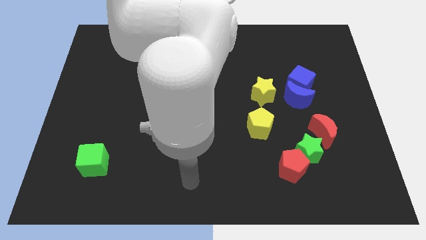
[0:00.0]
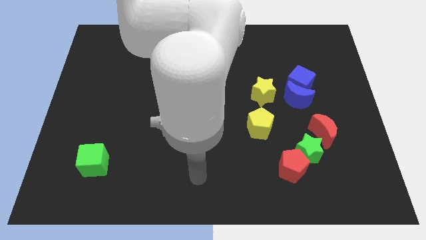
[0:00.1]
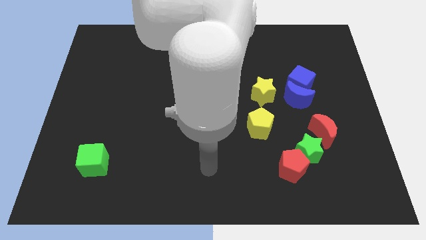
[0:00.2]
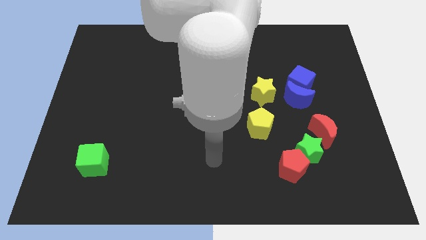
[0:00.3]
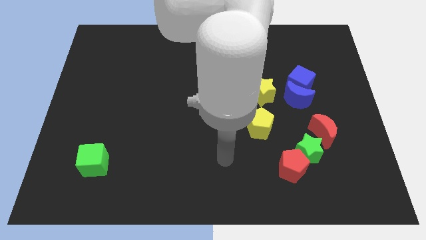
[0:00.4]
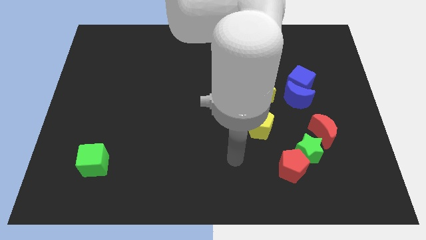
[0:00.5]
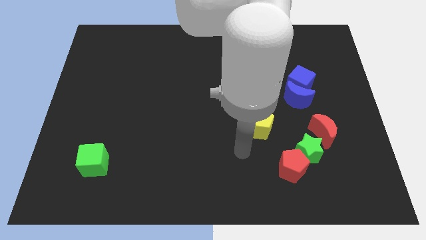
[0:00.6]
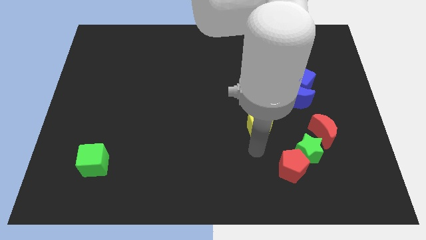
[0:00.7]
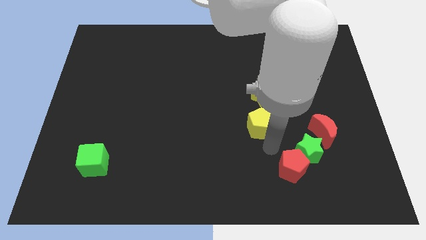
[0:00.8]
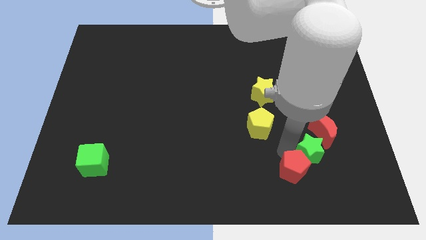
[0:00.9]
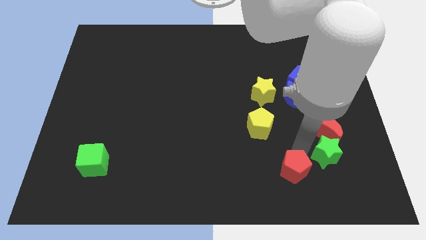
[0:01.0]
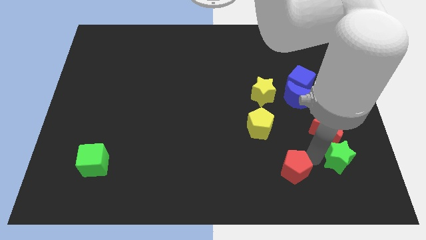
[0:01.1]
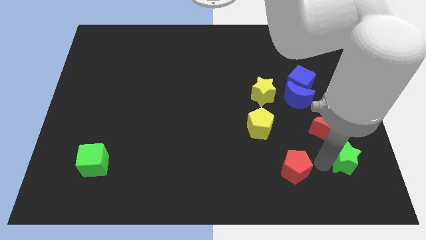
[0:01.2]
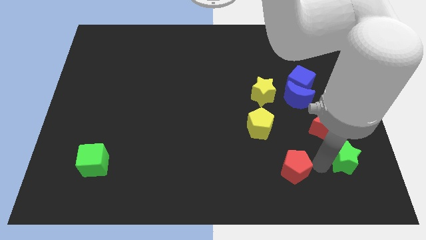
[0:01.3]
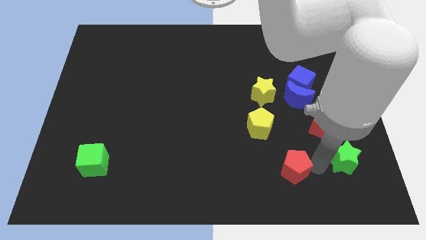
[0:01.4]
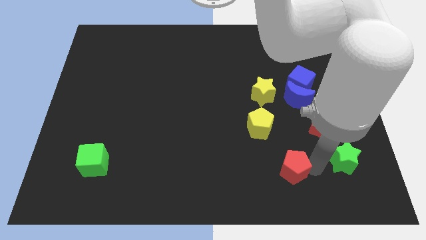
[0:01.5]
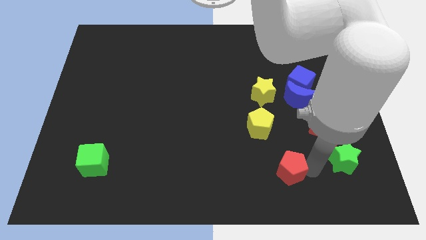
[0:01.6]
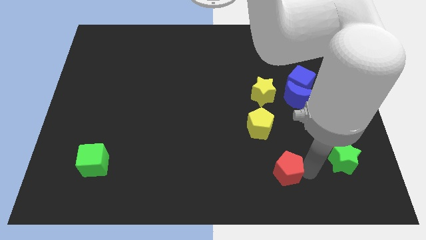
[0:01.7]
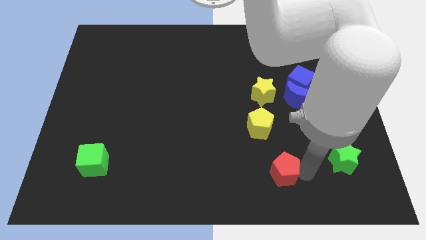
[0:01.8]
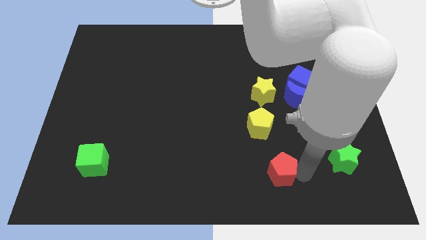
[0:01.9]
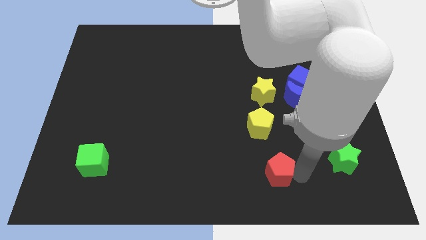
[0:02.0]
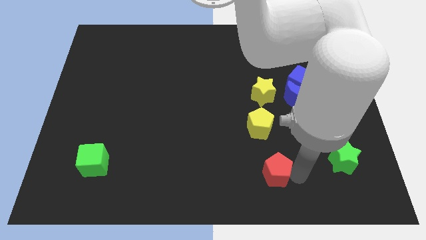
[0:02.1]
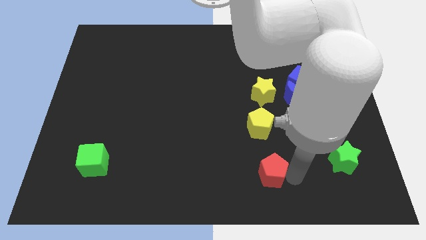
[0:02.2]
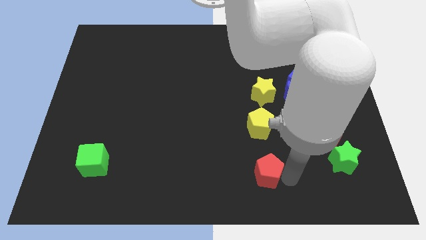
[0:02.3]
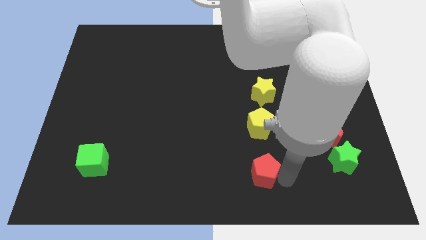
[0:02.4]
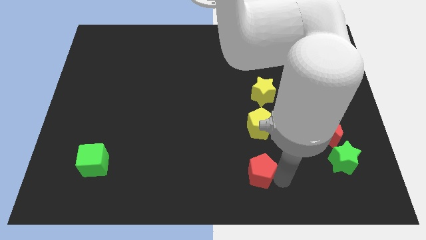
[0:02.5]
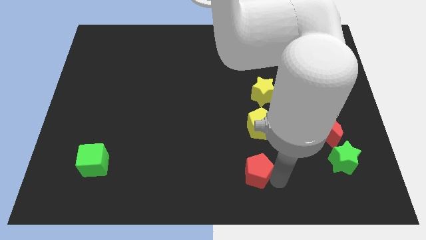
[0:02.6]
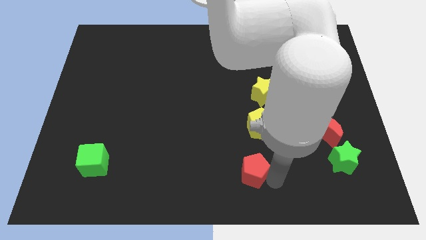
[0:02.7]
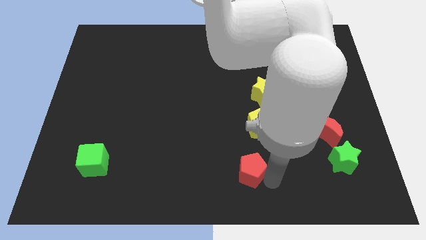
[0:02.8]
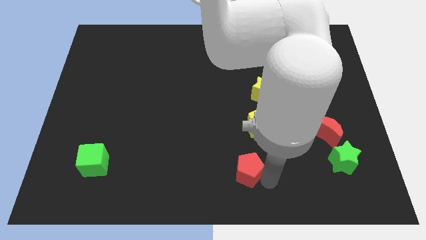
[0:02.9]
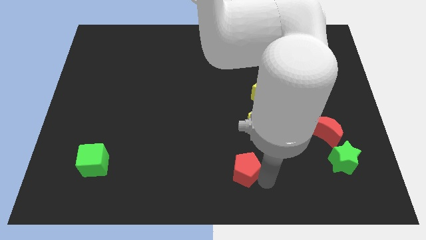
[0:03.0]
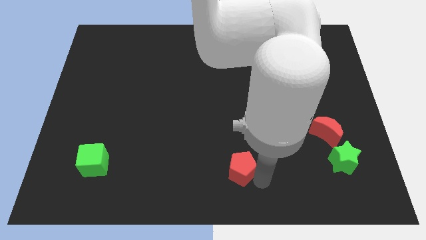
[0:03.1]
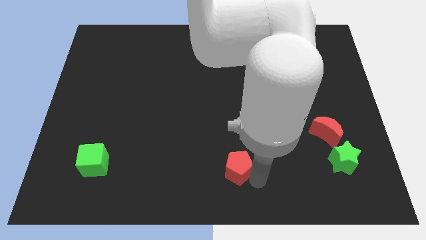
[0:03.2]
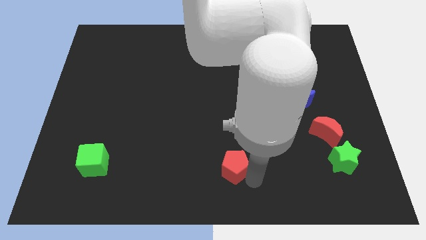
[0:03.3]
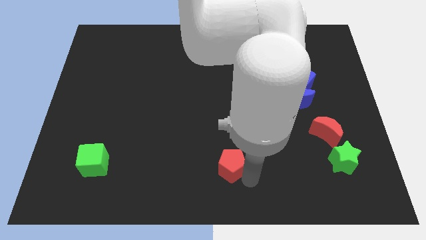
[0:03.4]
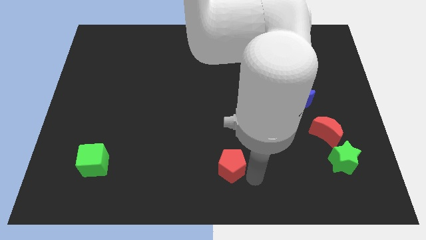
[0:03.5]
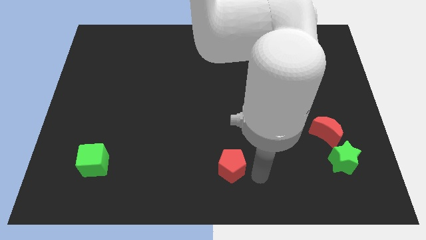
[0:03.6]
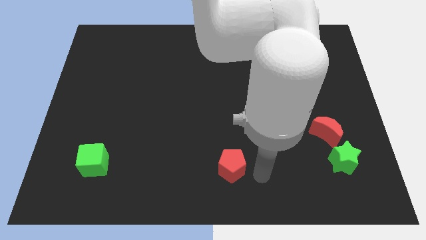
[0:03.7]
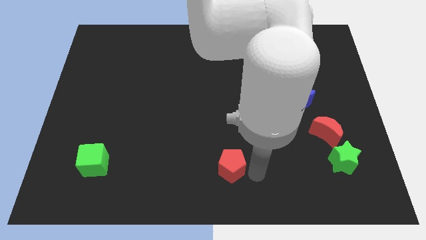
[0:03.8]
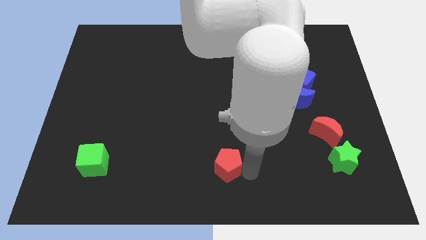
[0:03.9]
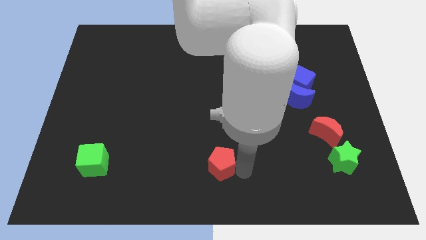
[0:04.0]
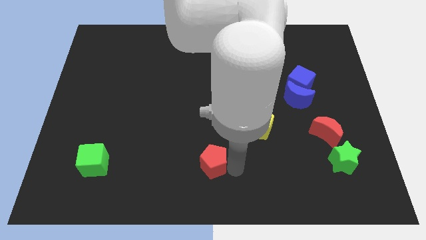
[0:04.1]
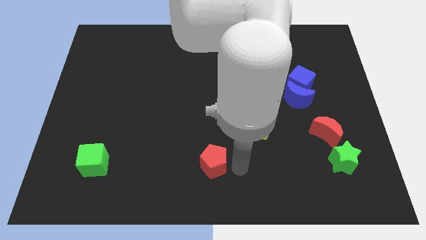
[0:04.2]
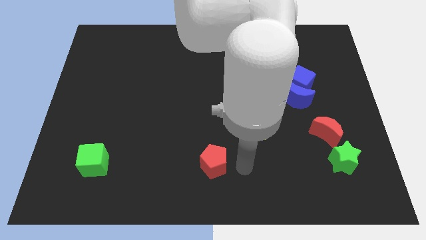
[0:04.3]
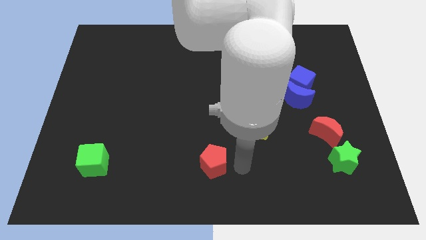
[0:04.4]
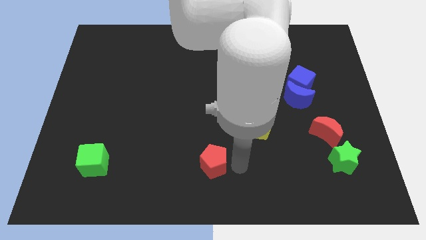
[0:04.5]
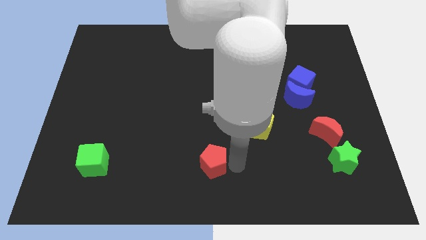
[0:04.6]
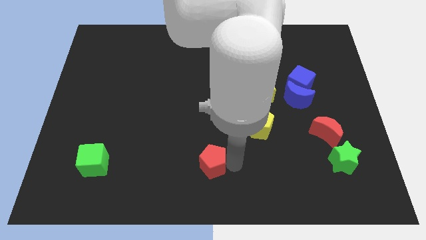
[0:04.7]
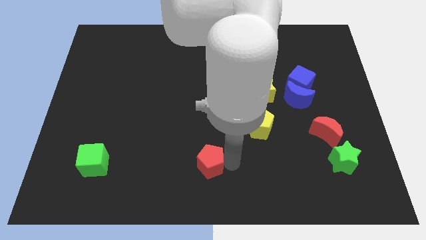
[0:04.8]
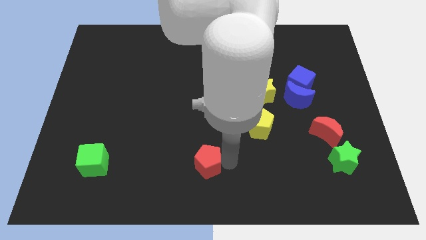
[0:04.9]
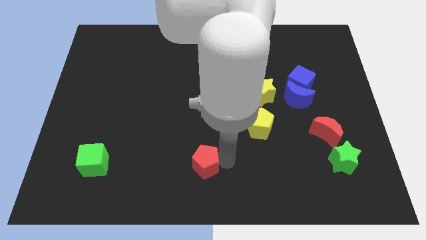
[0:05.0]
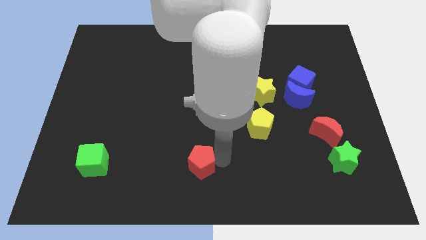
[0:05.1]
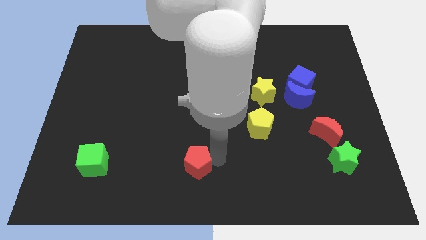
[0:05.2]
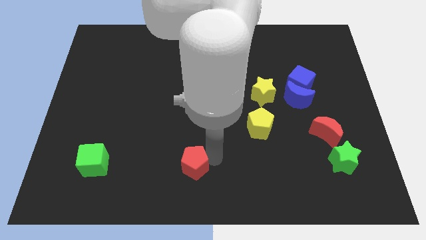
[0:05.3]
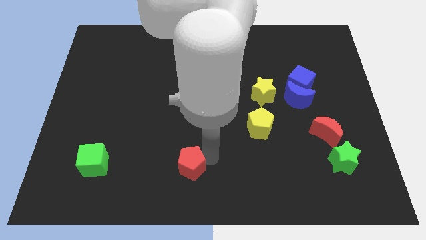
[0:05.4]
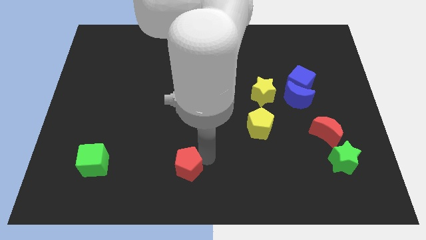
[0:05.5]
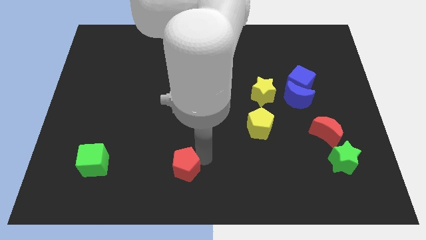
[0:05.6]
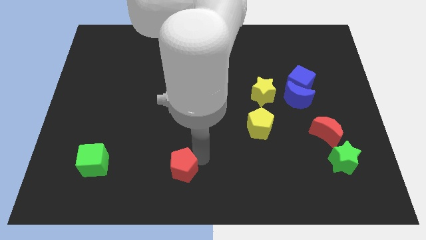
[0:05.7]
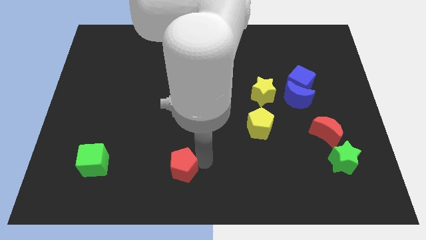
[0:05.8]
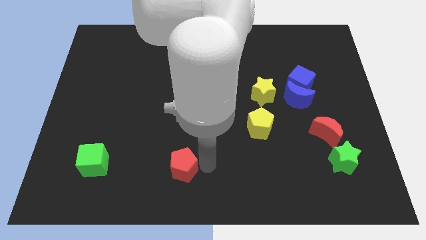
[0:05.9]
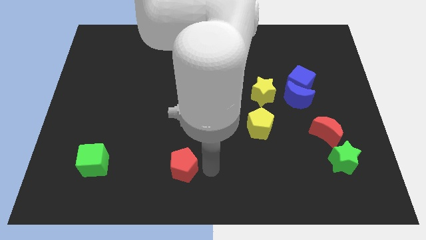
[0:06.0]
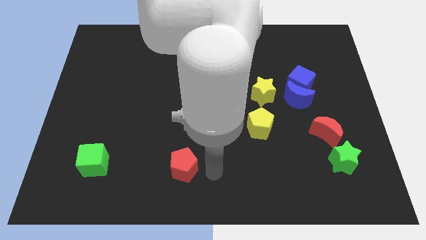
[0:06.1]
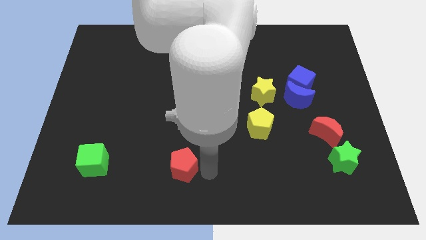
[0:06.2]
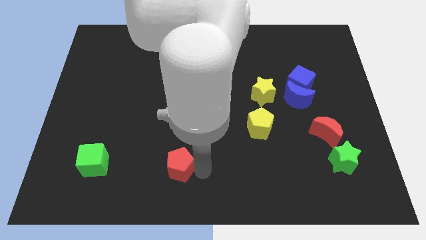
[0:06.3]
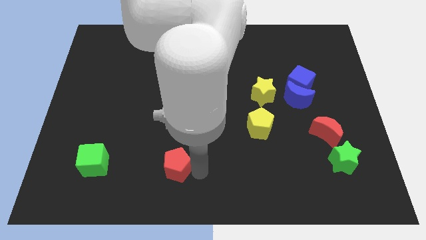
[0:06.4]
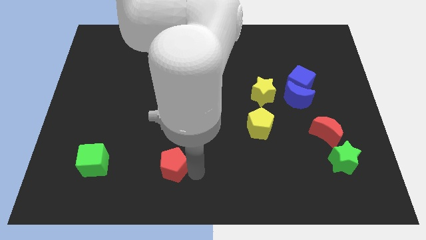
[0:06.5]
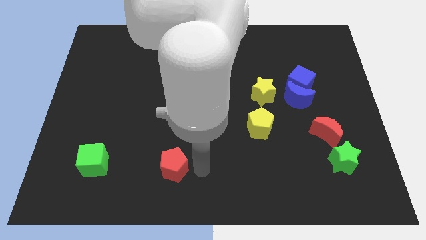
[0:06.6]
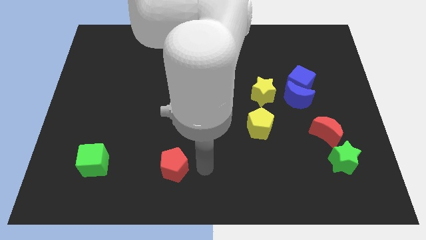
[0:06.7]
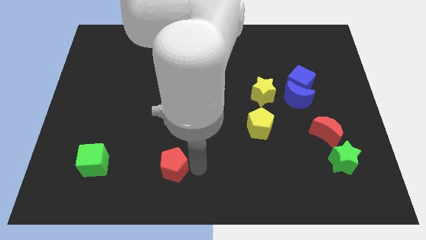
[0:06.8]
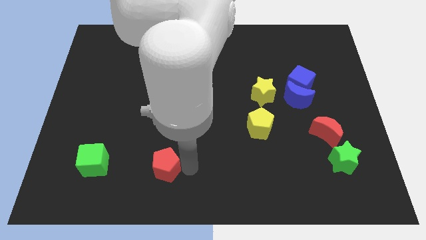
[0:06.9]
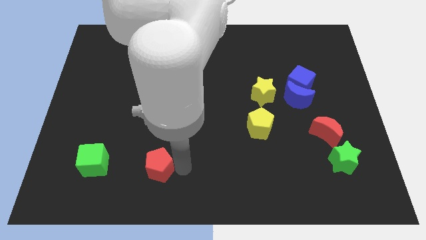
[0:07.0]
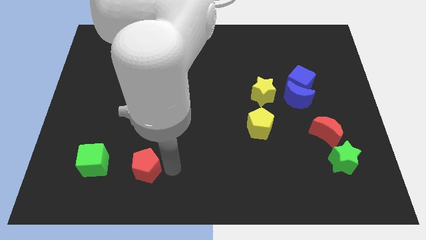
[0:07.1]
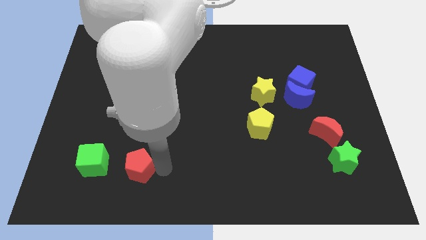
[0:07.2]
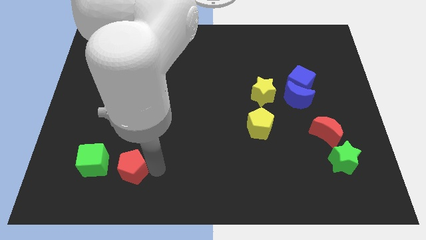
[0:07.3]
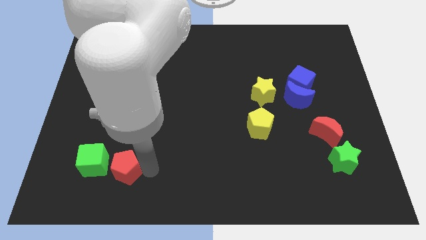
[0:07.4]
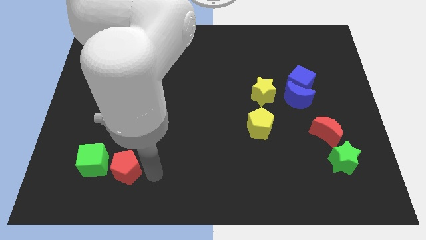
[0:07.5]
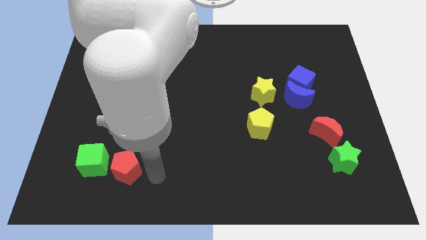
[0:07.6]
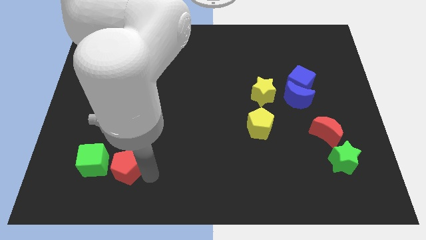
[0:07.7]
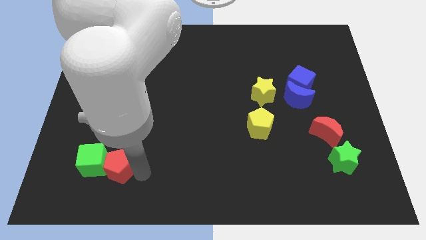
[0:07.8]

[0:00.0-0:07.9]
move the red pentagon close to the green cube
